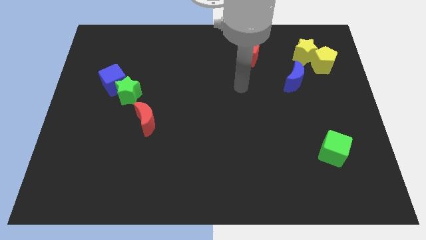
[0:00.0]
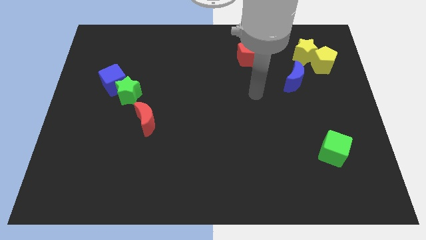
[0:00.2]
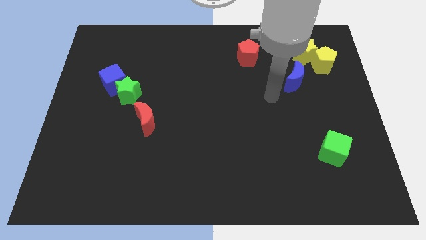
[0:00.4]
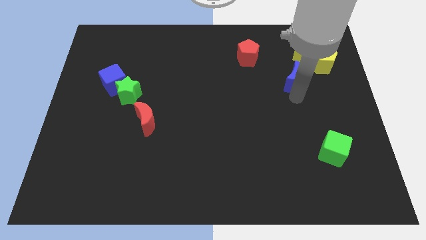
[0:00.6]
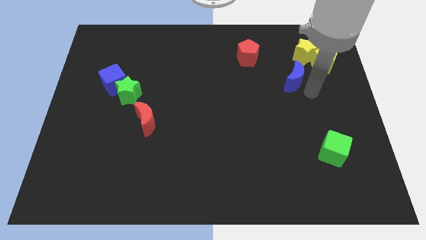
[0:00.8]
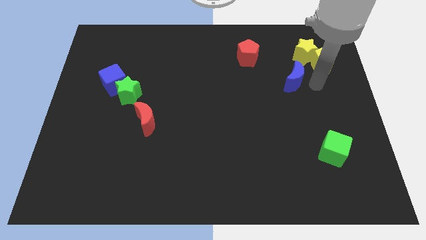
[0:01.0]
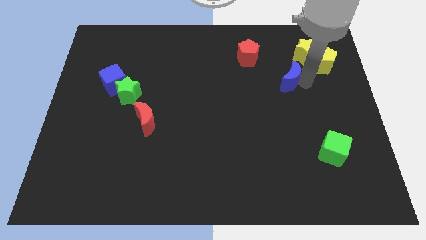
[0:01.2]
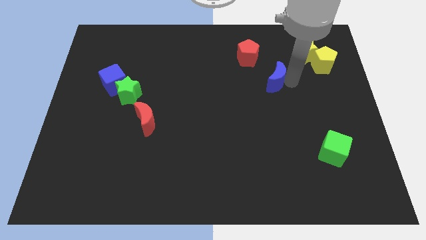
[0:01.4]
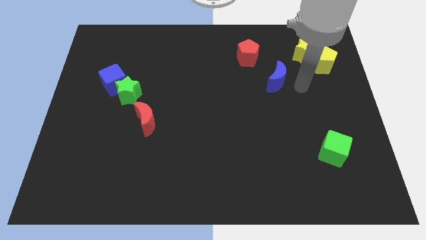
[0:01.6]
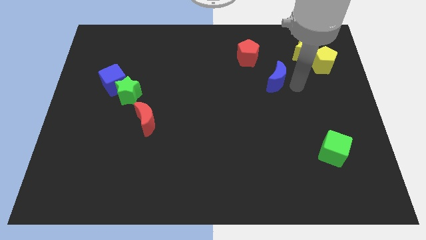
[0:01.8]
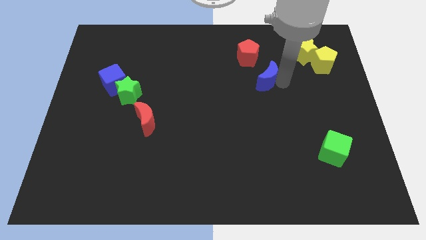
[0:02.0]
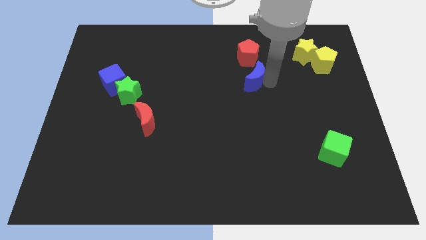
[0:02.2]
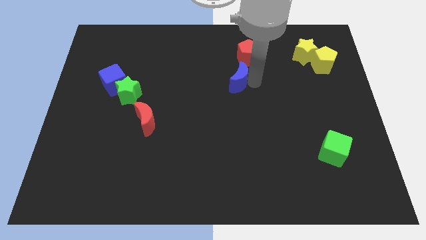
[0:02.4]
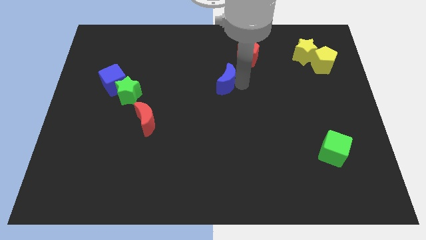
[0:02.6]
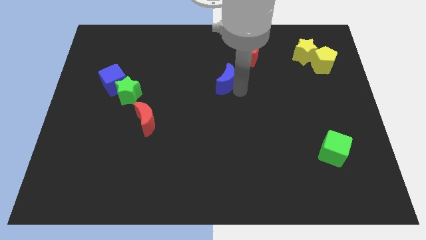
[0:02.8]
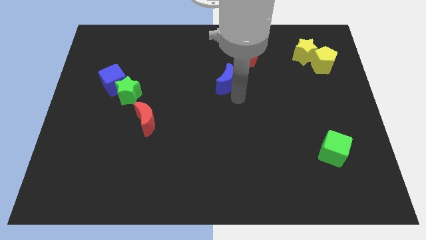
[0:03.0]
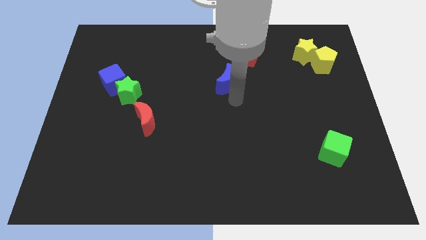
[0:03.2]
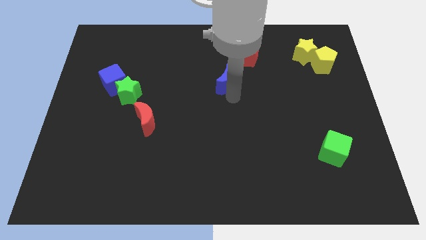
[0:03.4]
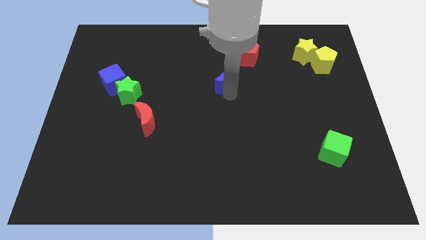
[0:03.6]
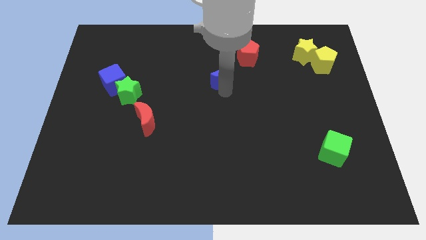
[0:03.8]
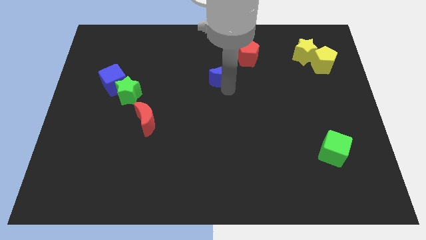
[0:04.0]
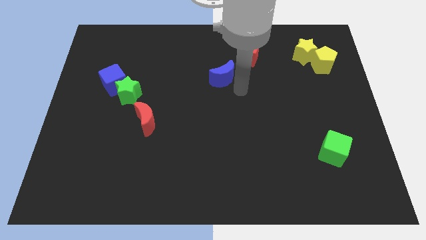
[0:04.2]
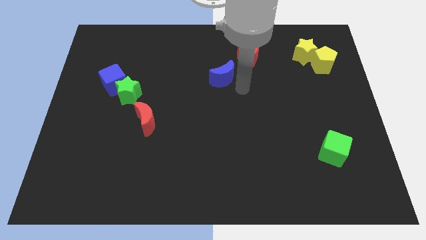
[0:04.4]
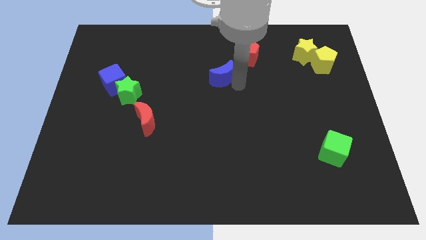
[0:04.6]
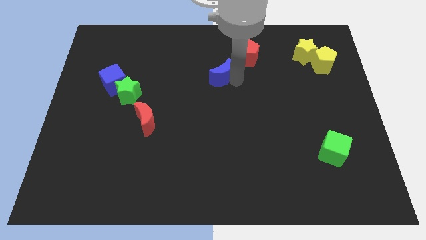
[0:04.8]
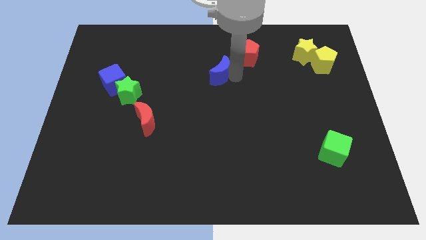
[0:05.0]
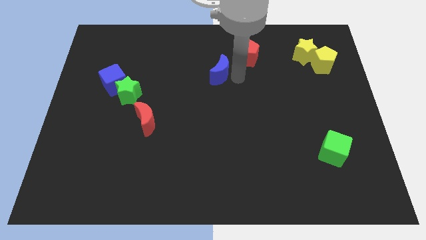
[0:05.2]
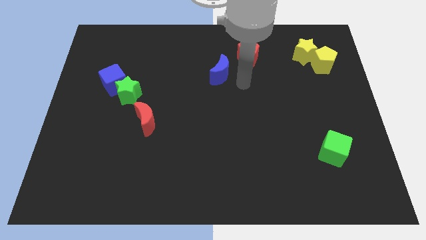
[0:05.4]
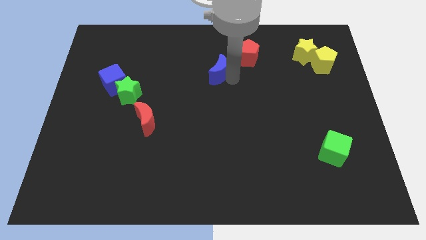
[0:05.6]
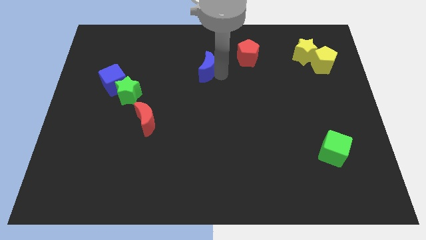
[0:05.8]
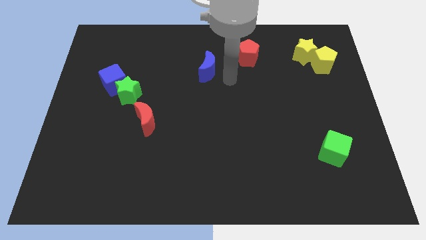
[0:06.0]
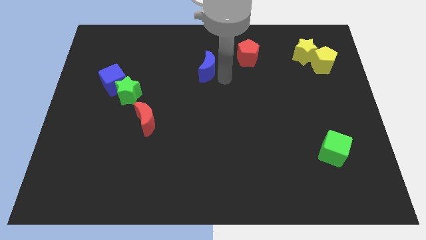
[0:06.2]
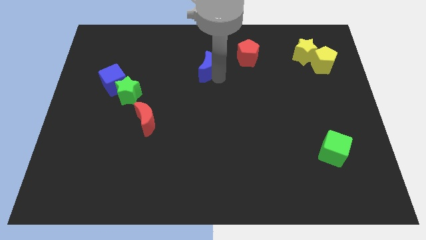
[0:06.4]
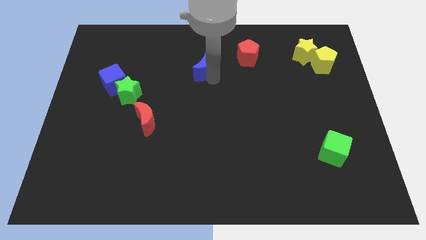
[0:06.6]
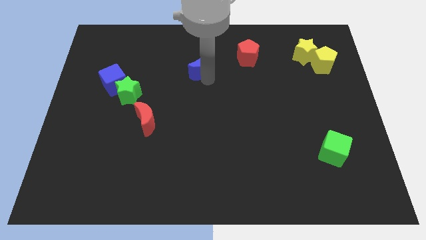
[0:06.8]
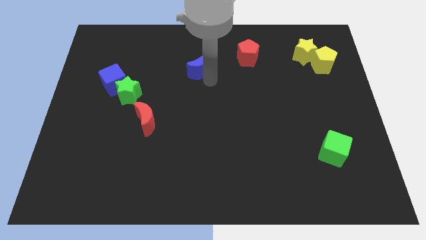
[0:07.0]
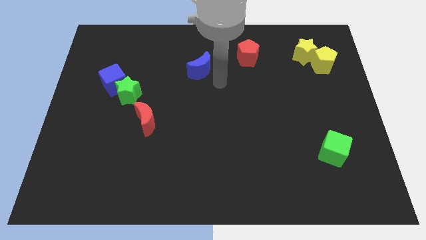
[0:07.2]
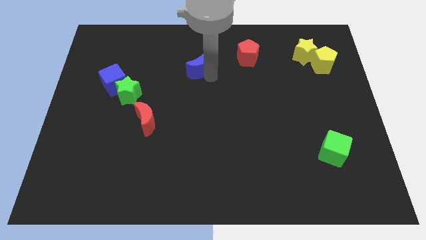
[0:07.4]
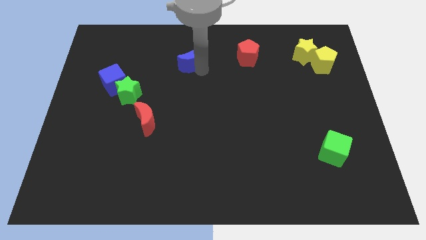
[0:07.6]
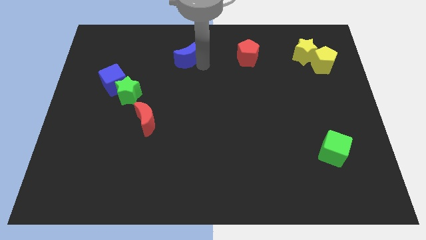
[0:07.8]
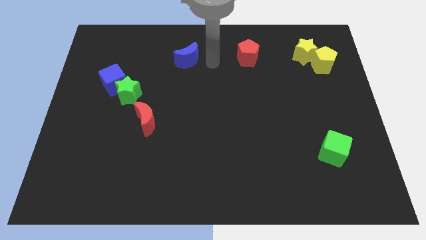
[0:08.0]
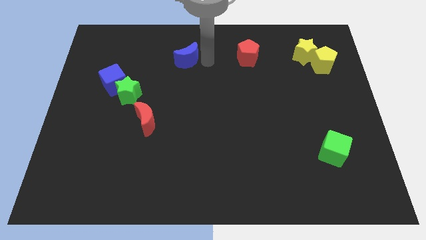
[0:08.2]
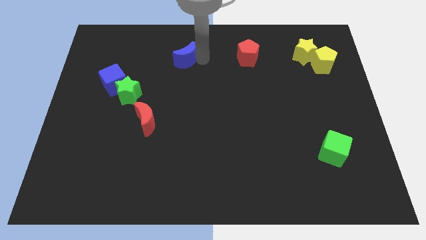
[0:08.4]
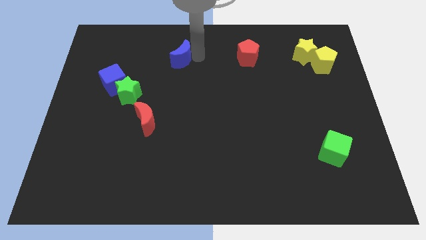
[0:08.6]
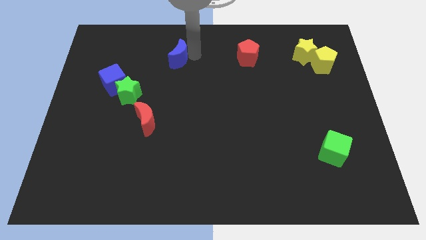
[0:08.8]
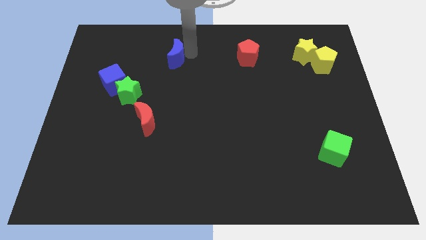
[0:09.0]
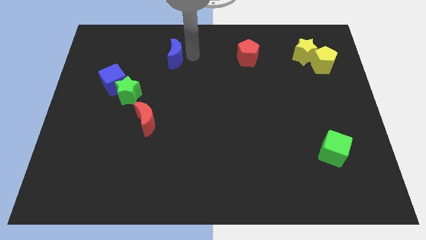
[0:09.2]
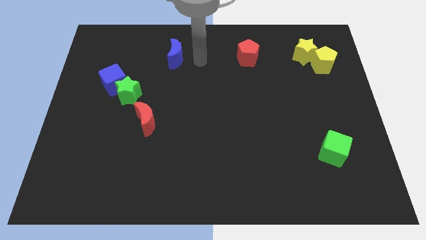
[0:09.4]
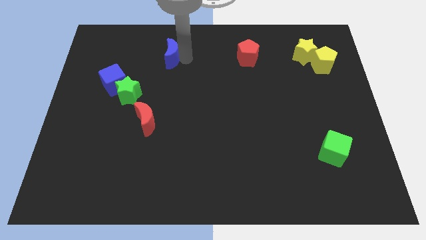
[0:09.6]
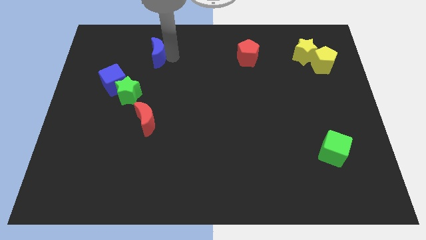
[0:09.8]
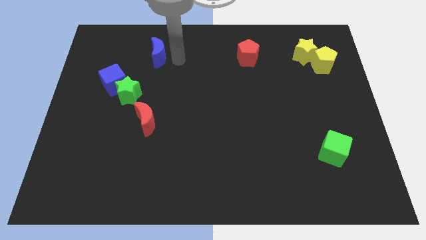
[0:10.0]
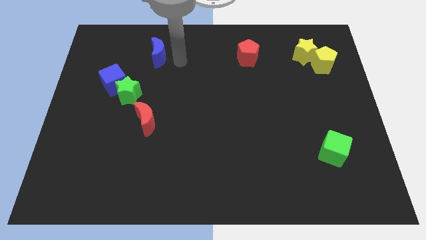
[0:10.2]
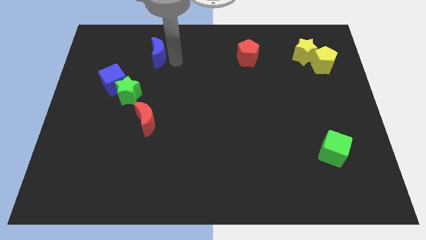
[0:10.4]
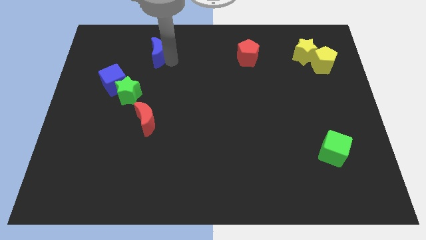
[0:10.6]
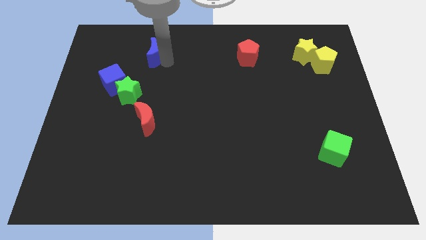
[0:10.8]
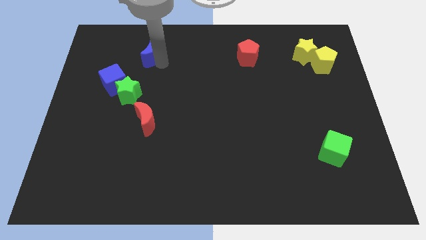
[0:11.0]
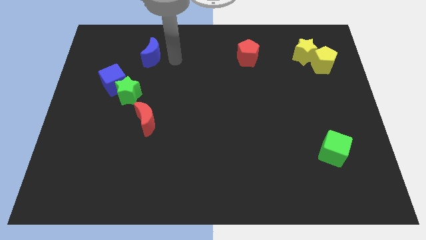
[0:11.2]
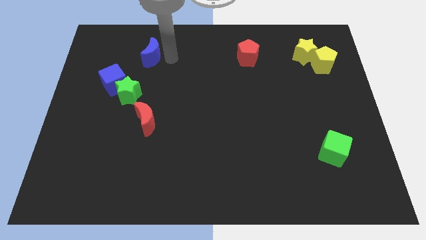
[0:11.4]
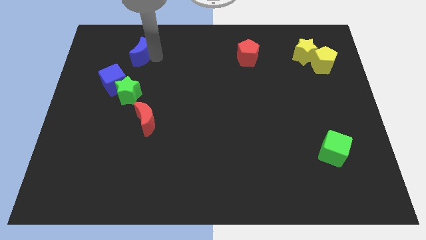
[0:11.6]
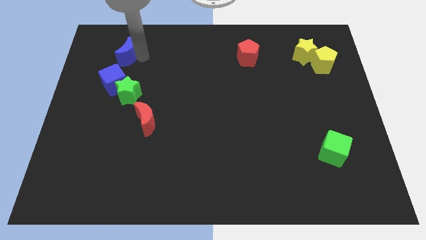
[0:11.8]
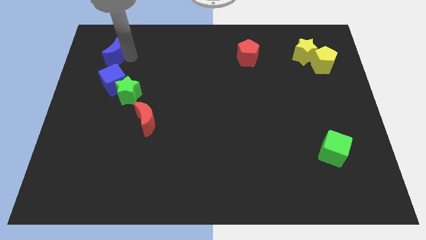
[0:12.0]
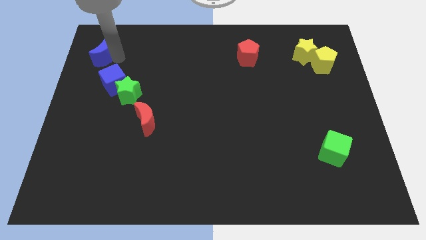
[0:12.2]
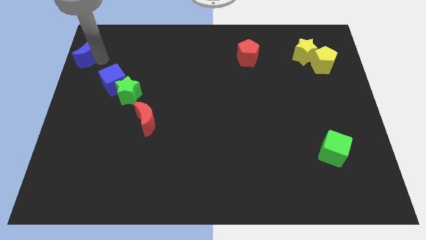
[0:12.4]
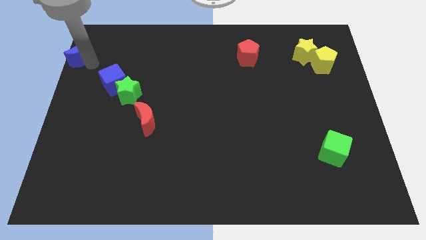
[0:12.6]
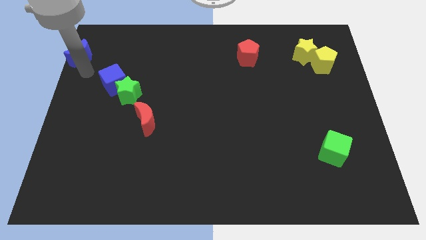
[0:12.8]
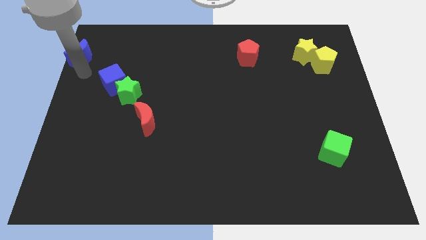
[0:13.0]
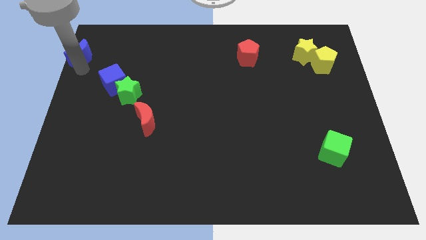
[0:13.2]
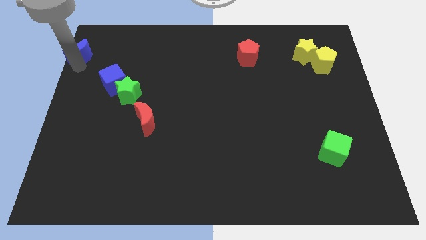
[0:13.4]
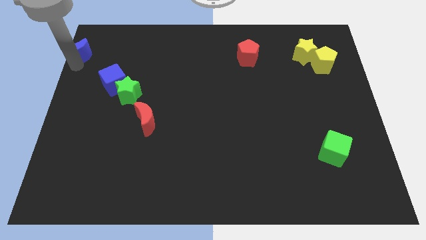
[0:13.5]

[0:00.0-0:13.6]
slide the blue moon to the top left corner
